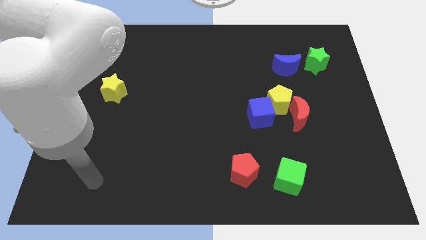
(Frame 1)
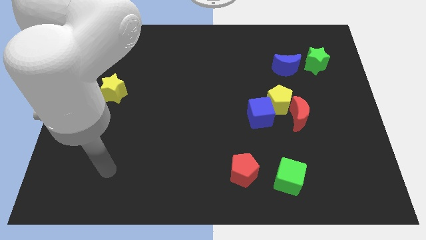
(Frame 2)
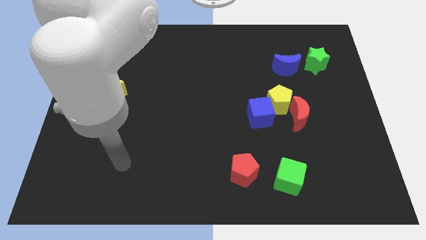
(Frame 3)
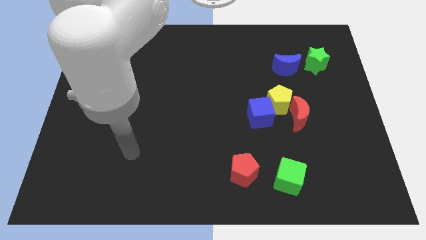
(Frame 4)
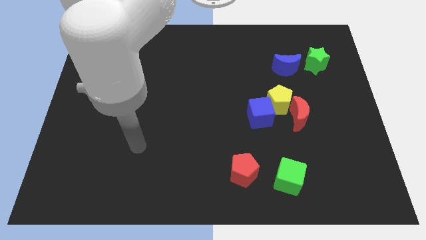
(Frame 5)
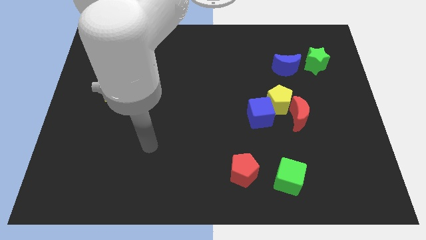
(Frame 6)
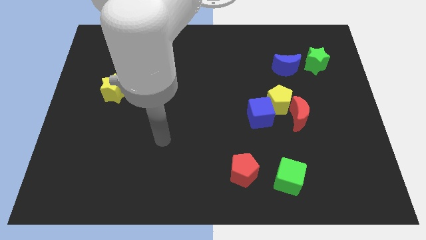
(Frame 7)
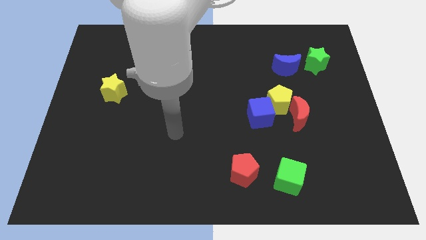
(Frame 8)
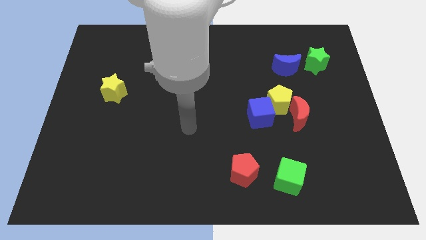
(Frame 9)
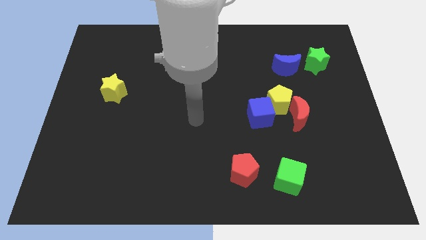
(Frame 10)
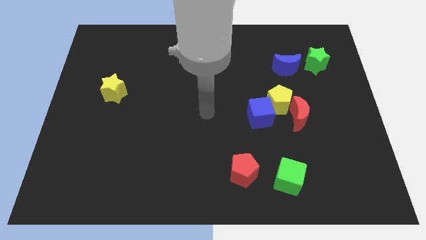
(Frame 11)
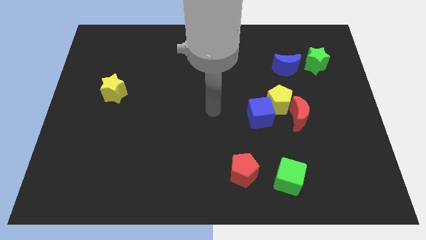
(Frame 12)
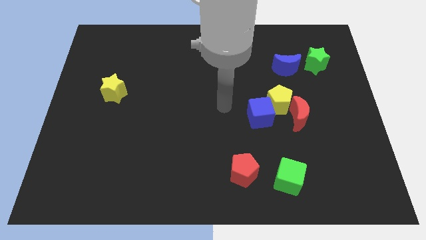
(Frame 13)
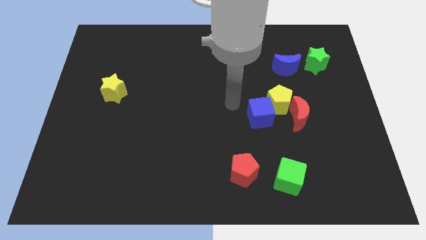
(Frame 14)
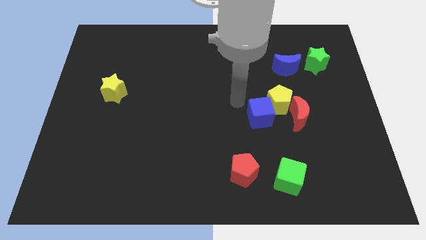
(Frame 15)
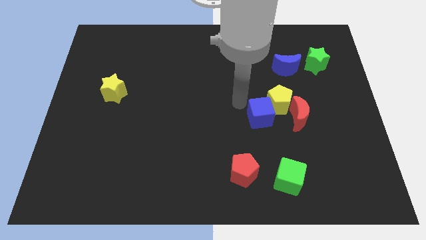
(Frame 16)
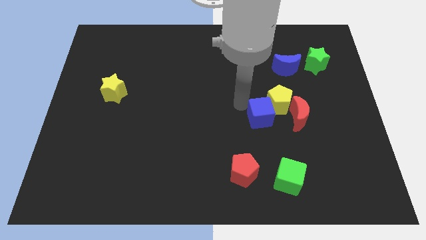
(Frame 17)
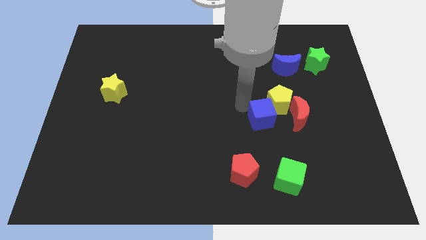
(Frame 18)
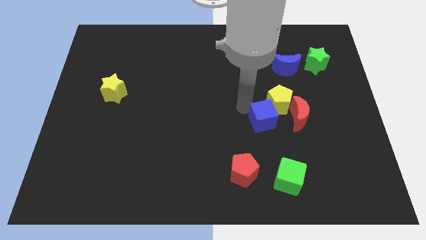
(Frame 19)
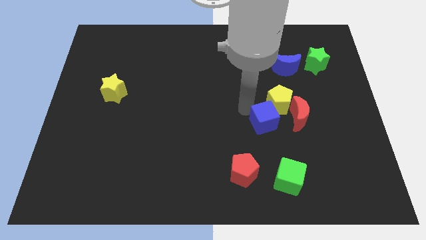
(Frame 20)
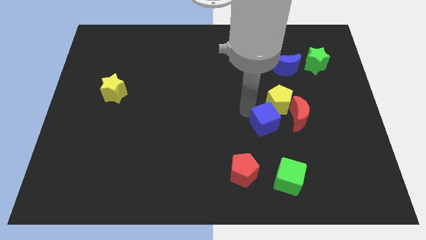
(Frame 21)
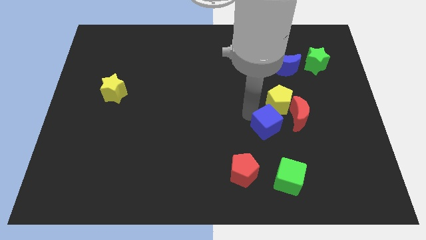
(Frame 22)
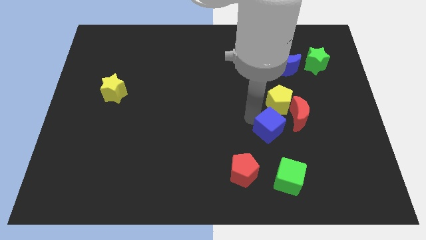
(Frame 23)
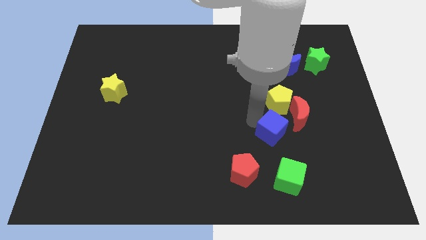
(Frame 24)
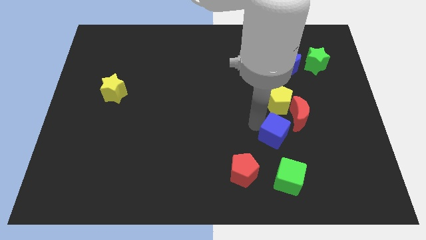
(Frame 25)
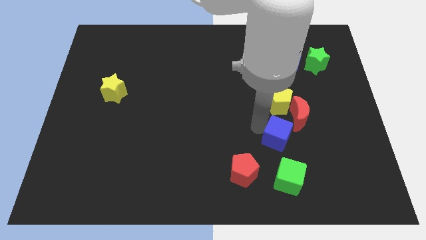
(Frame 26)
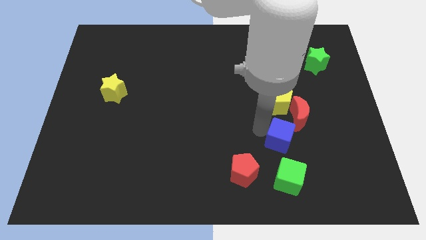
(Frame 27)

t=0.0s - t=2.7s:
push the blue cube a little down and to the right diagonally

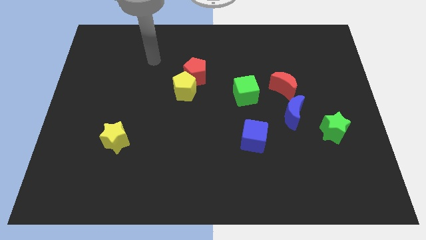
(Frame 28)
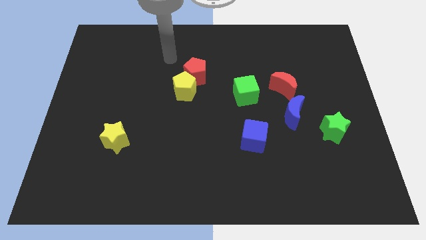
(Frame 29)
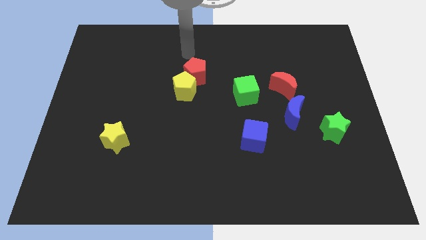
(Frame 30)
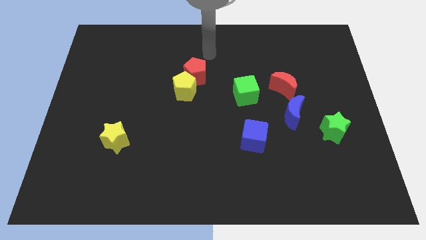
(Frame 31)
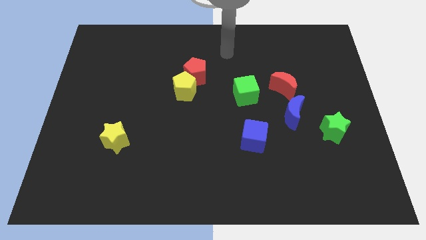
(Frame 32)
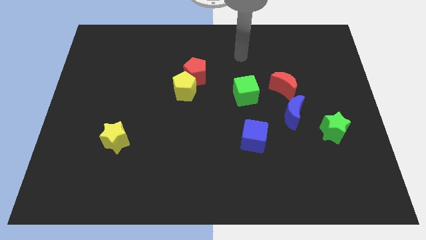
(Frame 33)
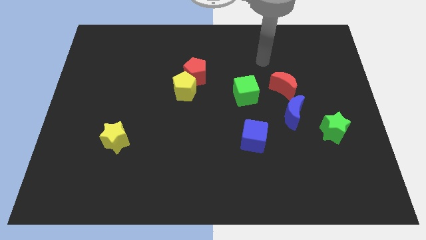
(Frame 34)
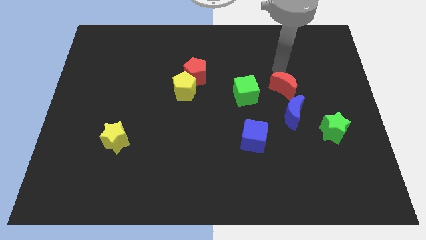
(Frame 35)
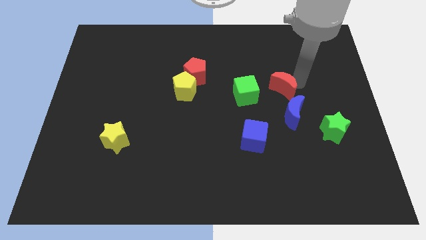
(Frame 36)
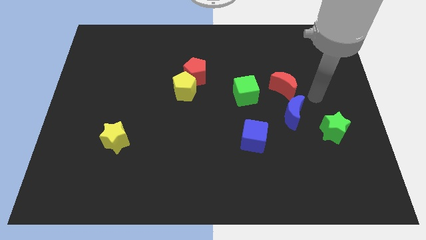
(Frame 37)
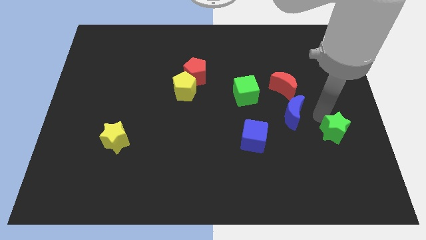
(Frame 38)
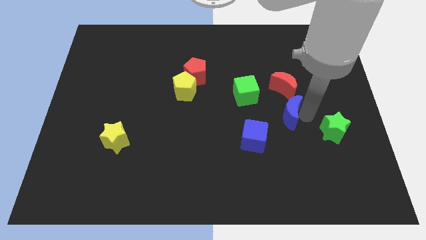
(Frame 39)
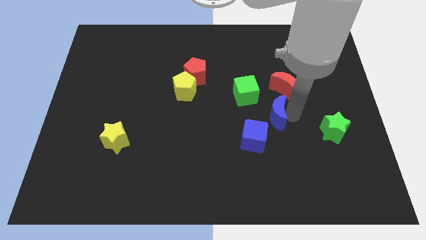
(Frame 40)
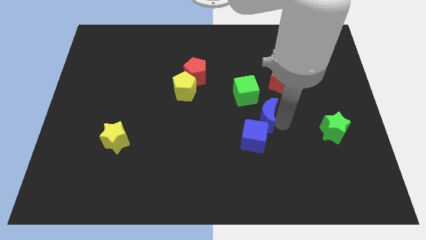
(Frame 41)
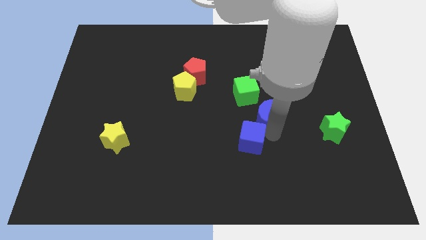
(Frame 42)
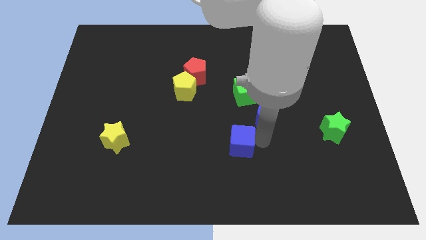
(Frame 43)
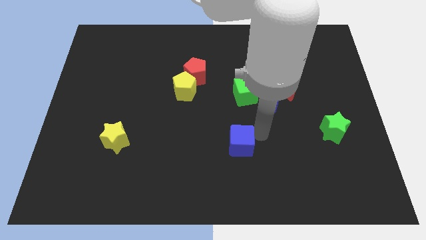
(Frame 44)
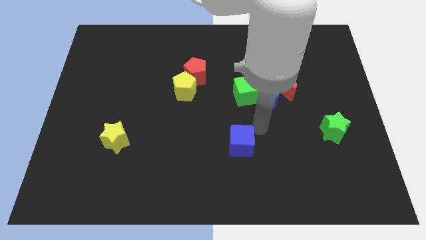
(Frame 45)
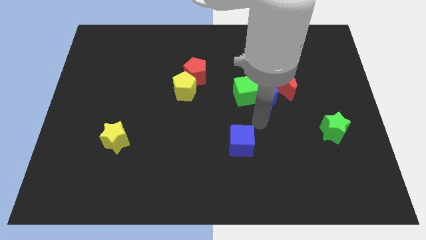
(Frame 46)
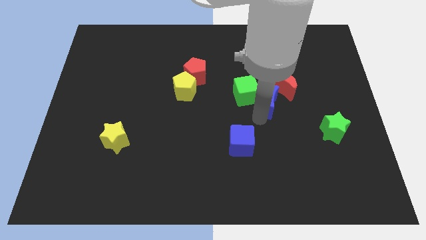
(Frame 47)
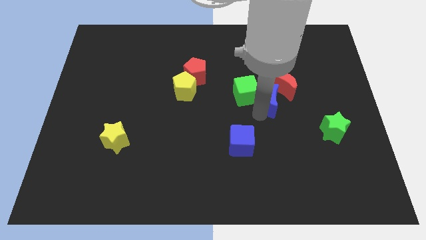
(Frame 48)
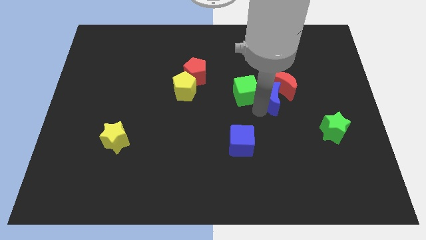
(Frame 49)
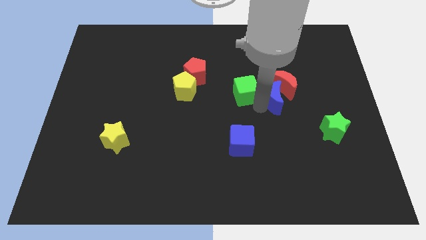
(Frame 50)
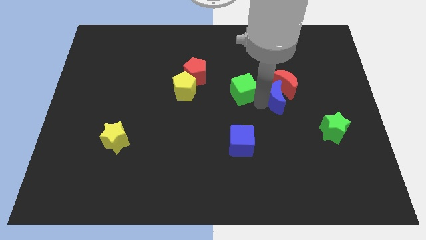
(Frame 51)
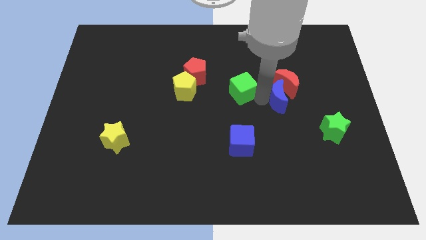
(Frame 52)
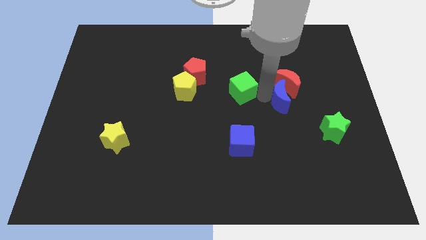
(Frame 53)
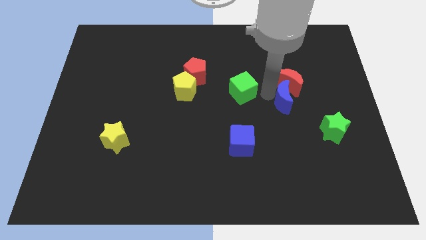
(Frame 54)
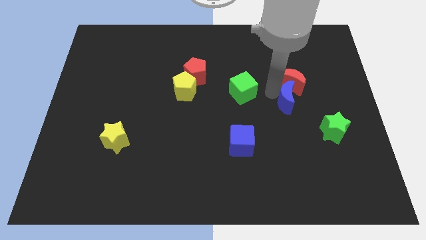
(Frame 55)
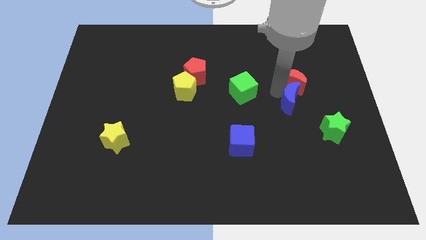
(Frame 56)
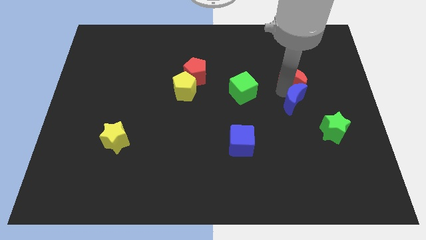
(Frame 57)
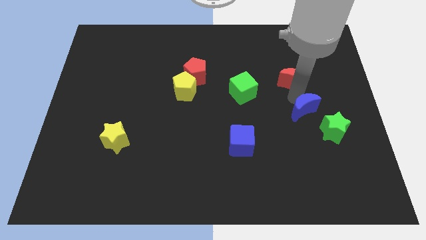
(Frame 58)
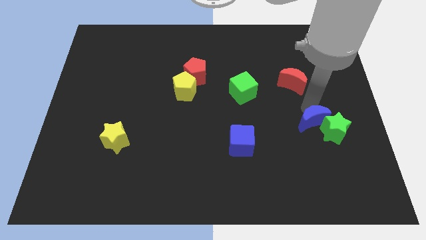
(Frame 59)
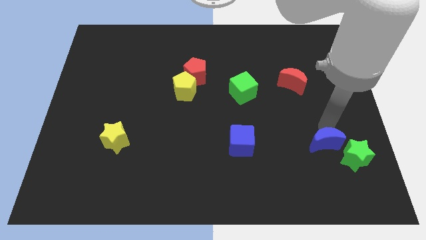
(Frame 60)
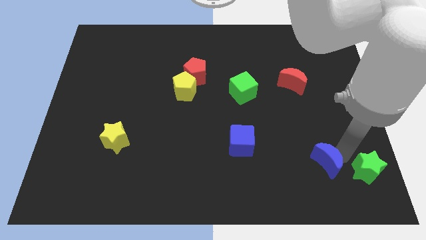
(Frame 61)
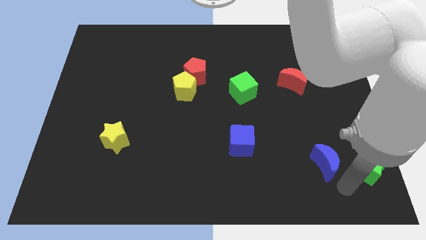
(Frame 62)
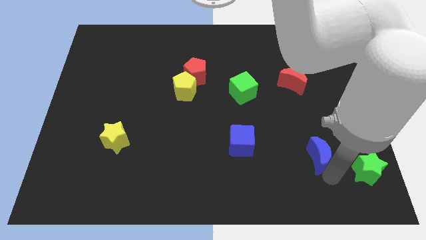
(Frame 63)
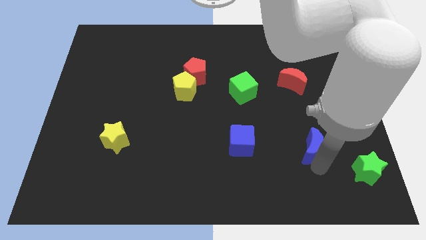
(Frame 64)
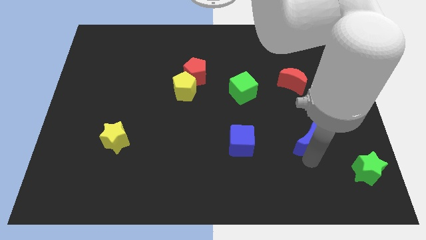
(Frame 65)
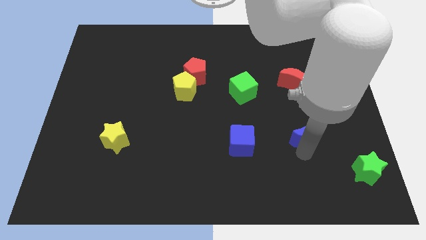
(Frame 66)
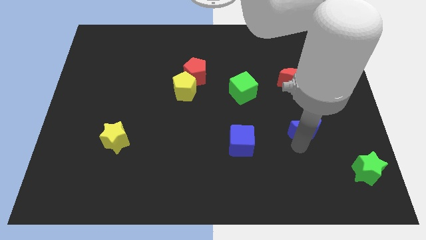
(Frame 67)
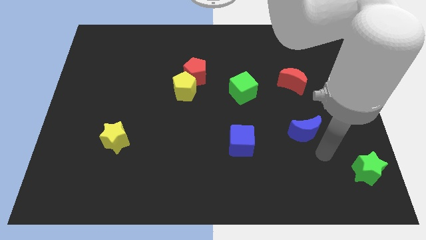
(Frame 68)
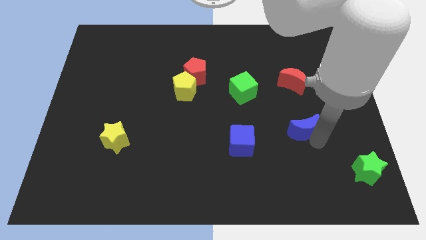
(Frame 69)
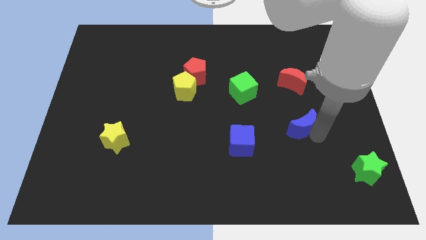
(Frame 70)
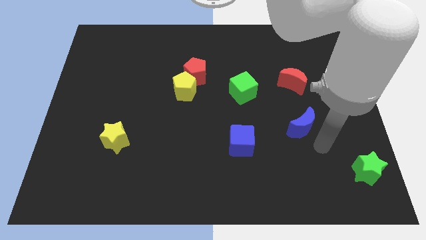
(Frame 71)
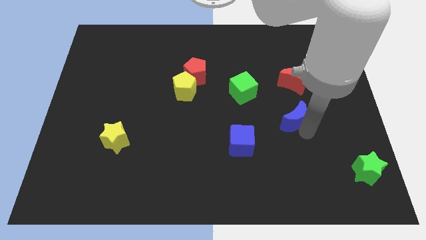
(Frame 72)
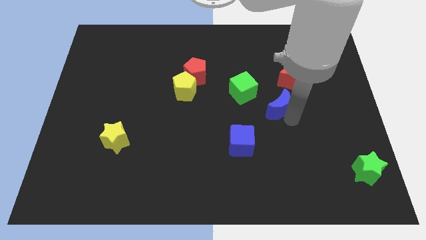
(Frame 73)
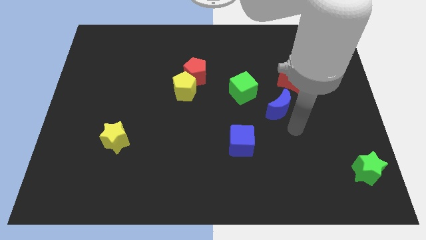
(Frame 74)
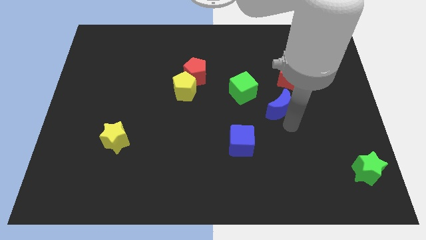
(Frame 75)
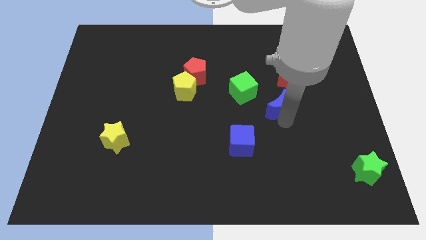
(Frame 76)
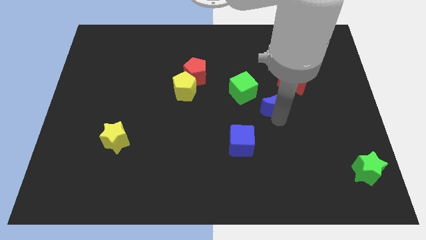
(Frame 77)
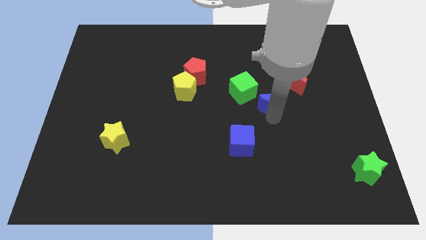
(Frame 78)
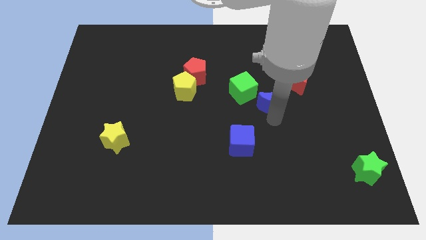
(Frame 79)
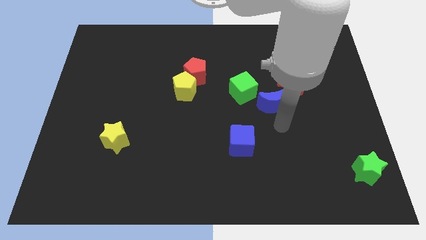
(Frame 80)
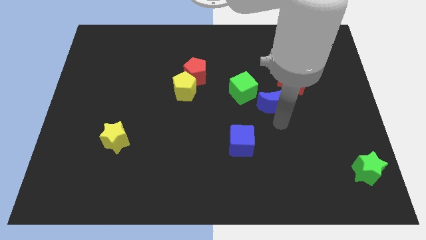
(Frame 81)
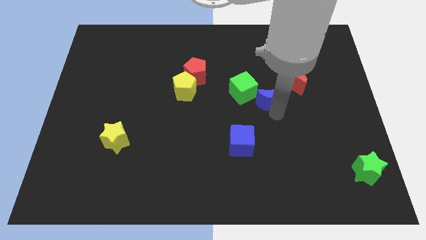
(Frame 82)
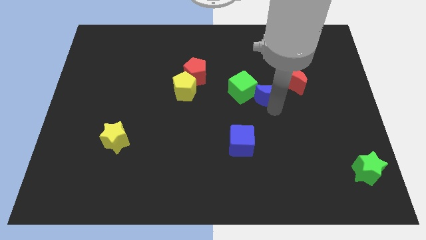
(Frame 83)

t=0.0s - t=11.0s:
slightly slide the blue moon up and then left
